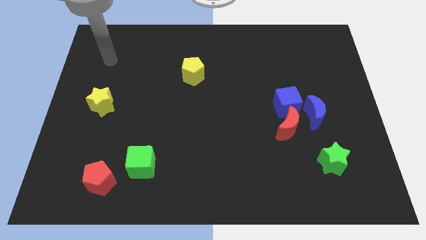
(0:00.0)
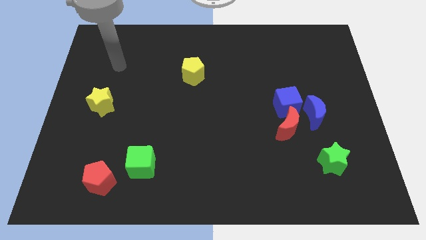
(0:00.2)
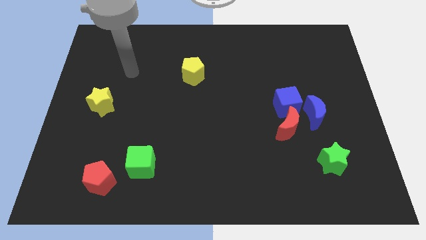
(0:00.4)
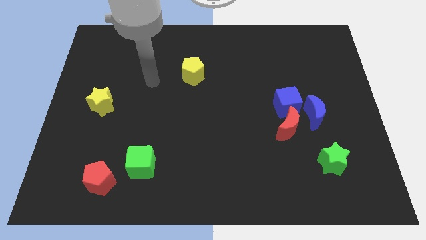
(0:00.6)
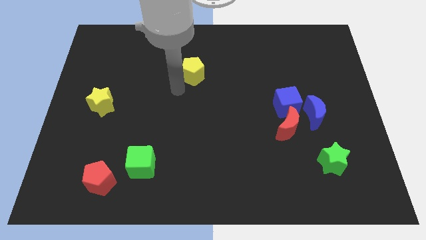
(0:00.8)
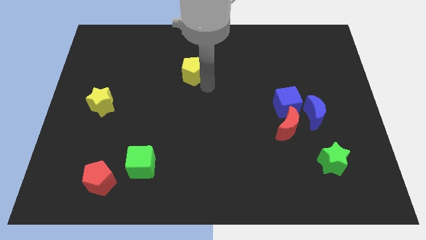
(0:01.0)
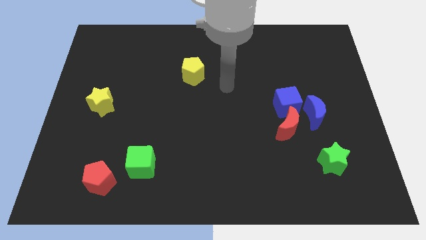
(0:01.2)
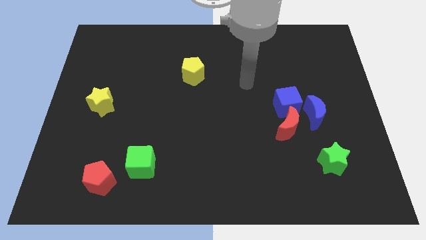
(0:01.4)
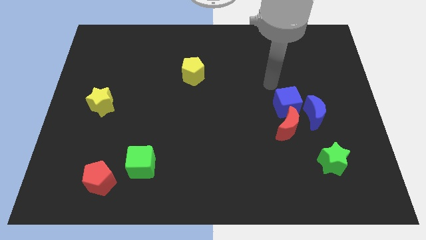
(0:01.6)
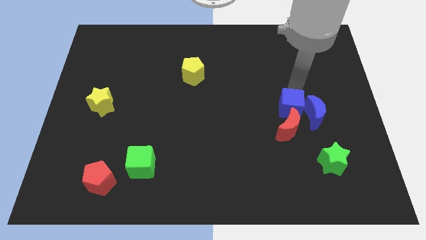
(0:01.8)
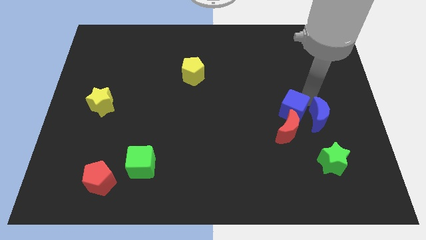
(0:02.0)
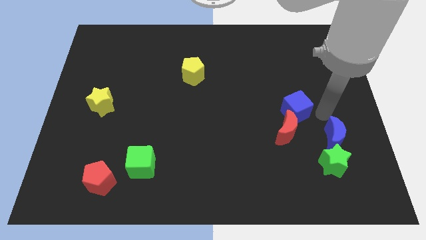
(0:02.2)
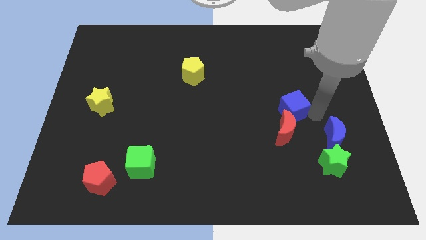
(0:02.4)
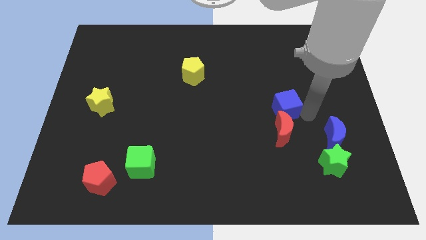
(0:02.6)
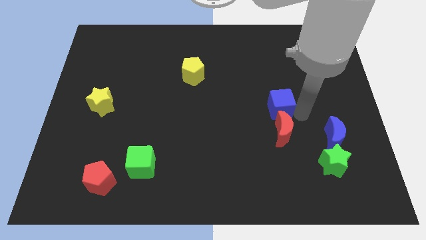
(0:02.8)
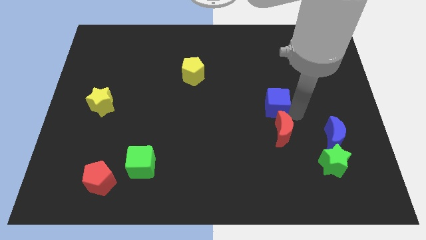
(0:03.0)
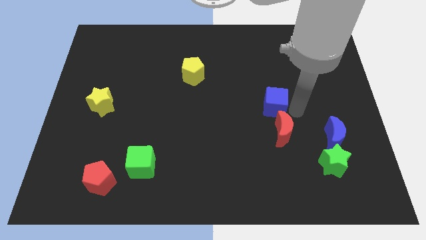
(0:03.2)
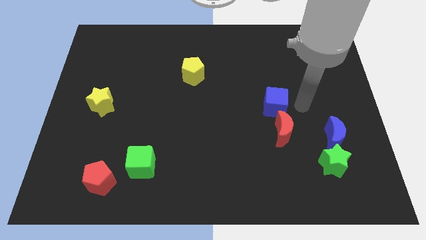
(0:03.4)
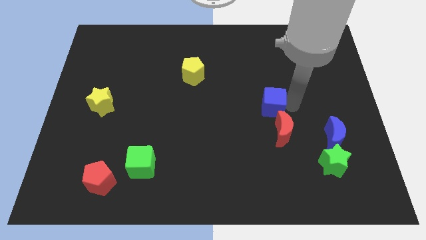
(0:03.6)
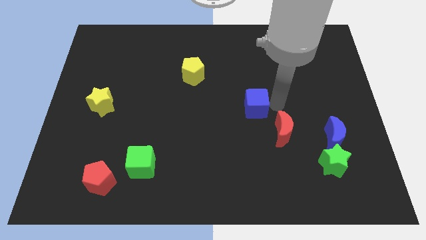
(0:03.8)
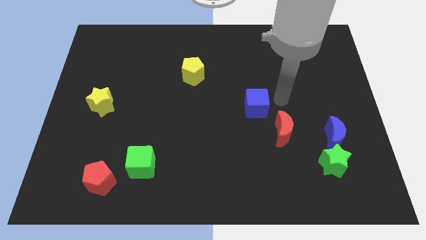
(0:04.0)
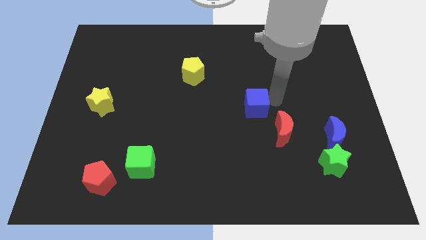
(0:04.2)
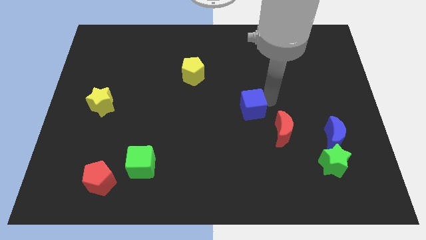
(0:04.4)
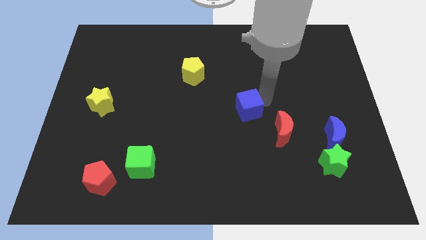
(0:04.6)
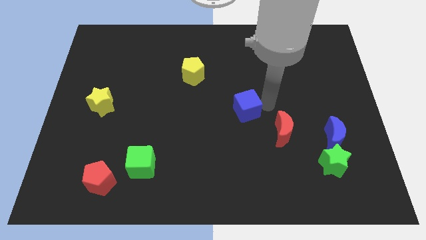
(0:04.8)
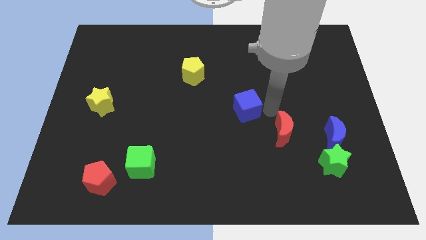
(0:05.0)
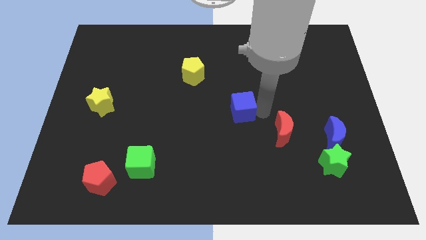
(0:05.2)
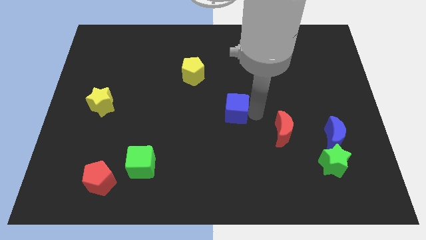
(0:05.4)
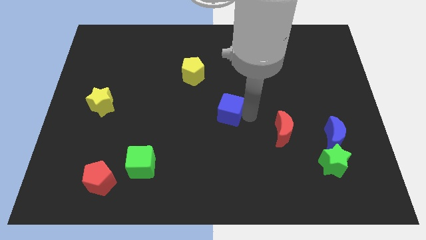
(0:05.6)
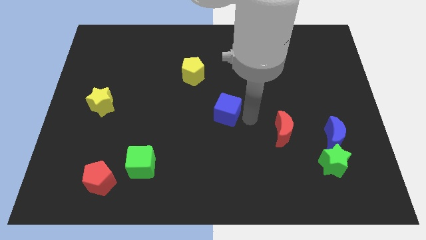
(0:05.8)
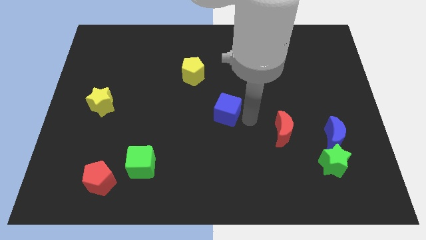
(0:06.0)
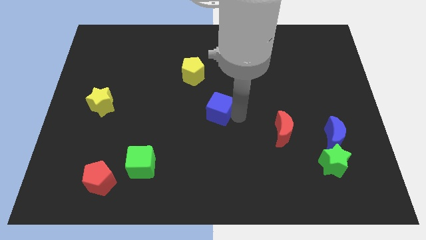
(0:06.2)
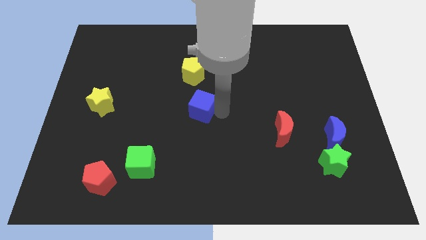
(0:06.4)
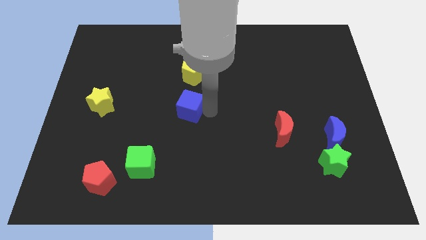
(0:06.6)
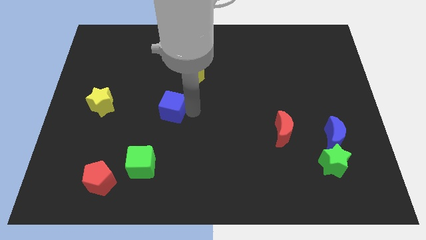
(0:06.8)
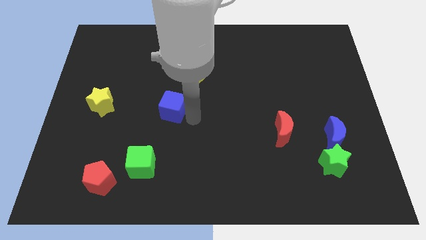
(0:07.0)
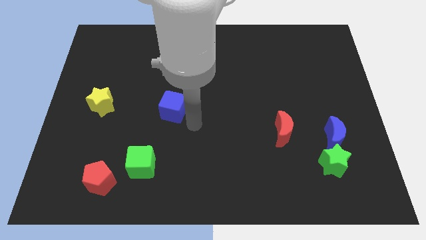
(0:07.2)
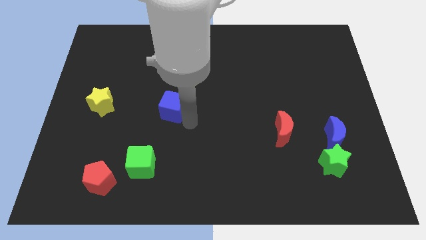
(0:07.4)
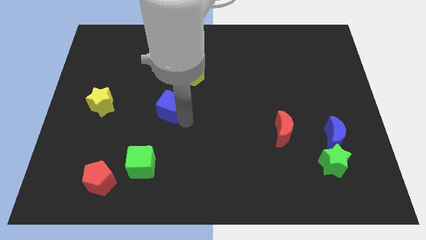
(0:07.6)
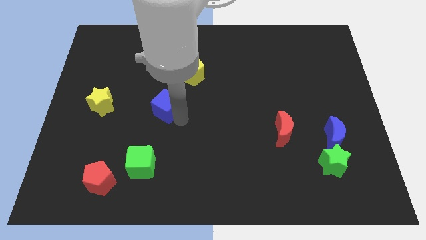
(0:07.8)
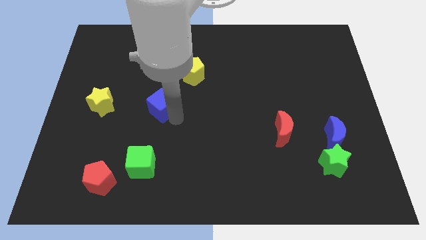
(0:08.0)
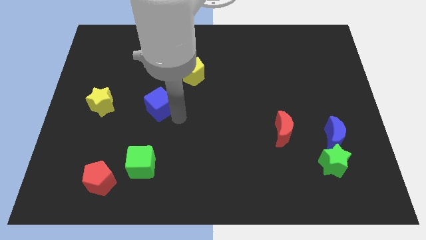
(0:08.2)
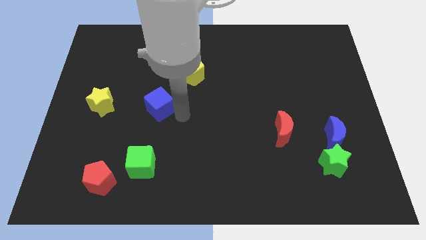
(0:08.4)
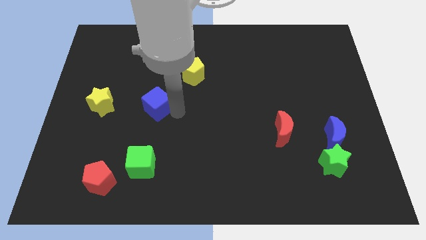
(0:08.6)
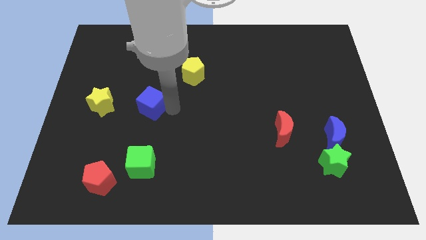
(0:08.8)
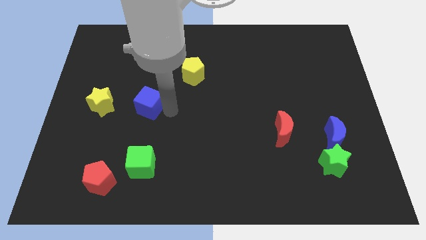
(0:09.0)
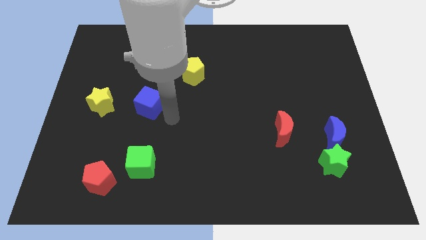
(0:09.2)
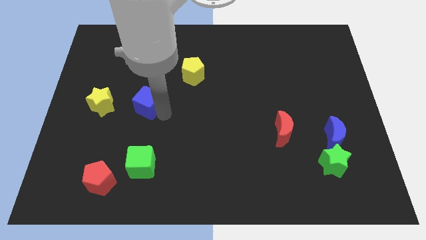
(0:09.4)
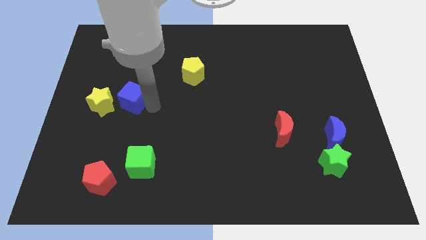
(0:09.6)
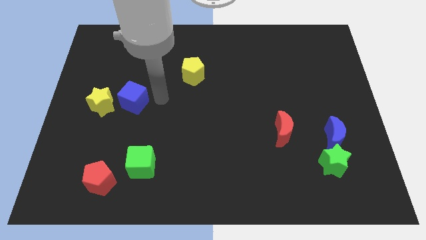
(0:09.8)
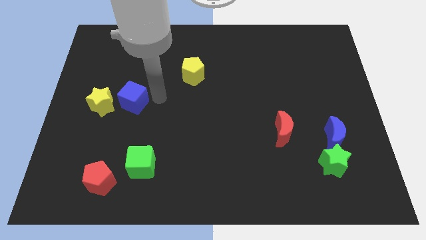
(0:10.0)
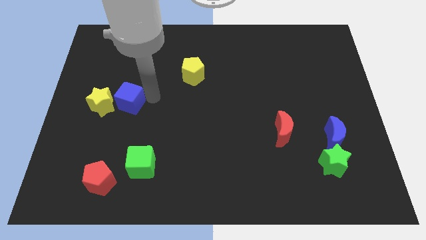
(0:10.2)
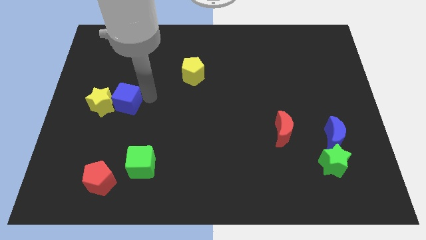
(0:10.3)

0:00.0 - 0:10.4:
push the blue cube to the yellow star

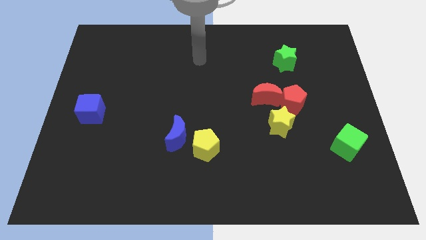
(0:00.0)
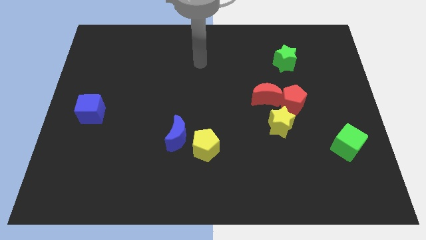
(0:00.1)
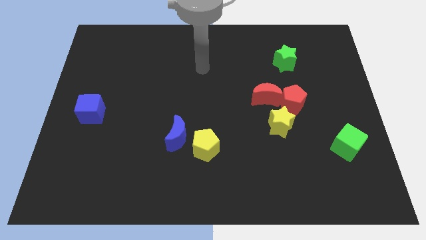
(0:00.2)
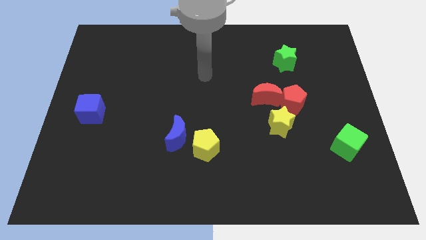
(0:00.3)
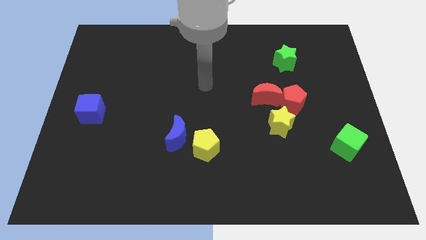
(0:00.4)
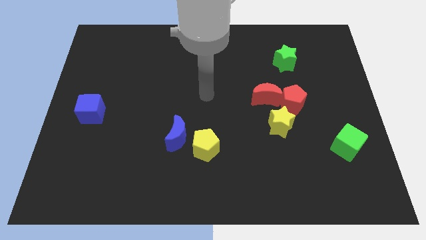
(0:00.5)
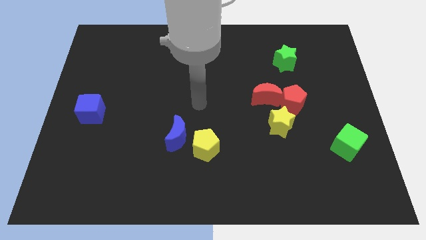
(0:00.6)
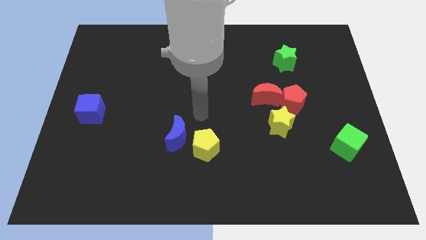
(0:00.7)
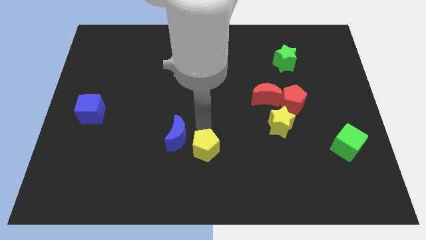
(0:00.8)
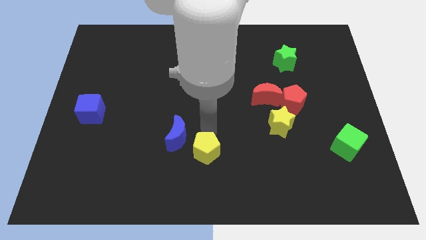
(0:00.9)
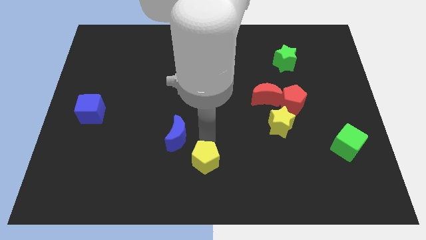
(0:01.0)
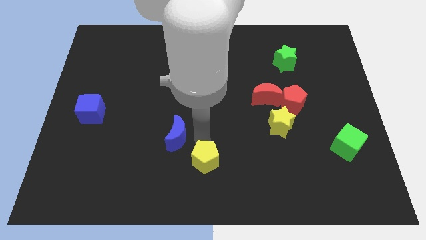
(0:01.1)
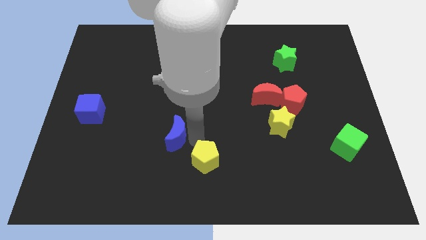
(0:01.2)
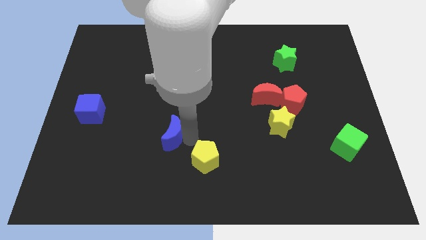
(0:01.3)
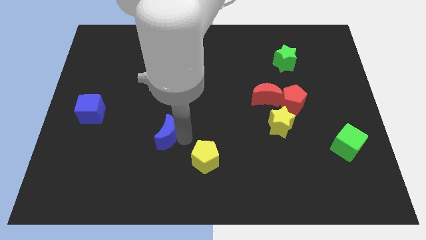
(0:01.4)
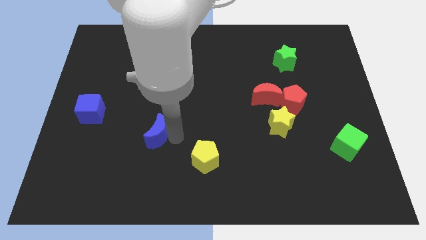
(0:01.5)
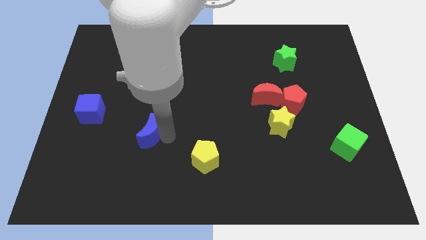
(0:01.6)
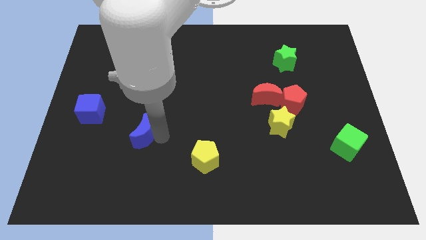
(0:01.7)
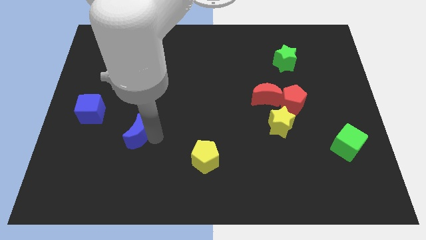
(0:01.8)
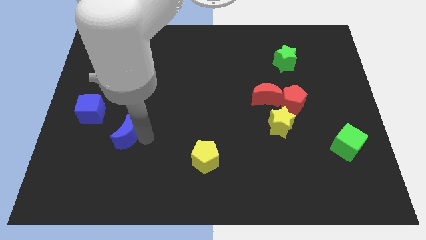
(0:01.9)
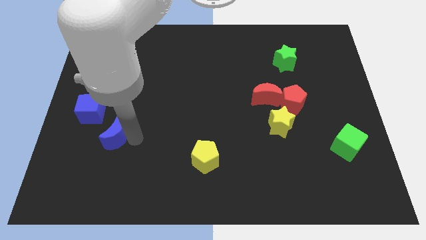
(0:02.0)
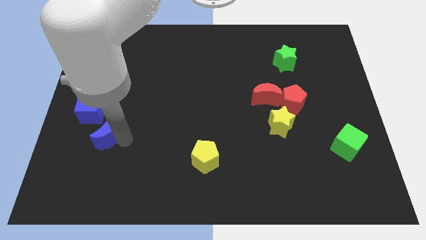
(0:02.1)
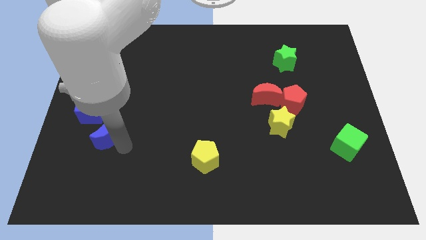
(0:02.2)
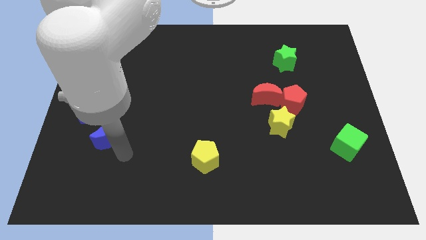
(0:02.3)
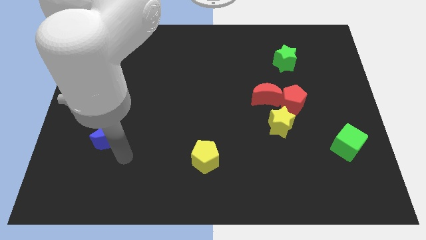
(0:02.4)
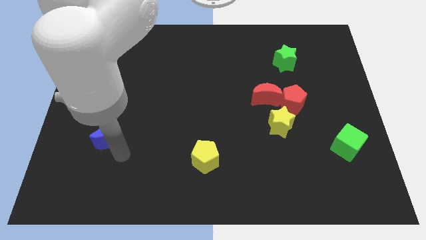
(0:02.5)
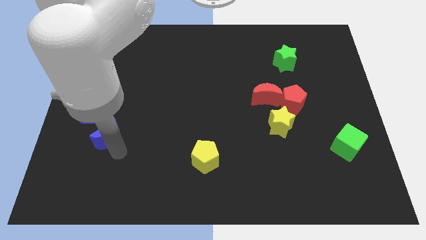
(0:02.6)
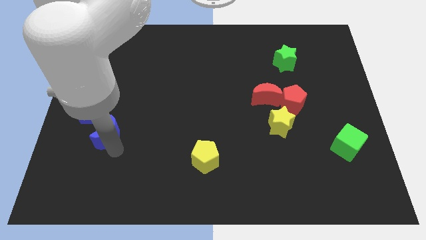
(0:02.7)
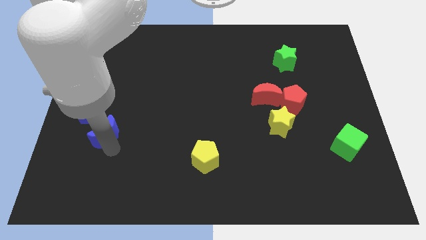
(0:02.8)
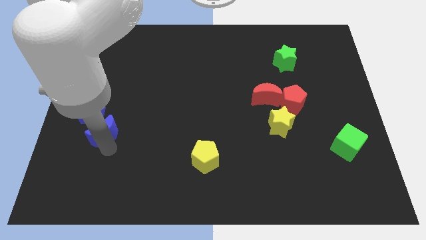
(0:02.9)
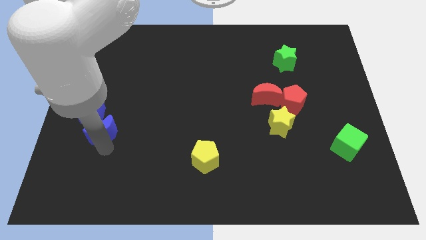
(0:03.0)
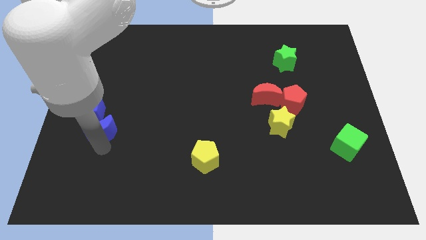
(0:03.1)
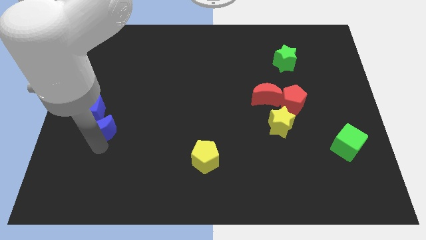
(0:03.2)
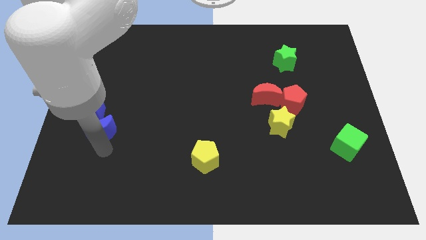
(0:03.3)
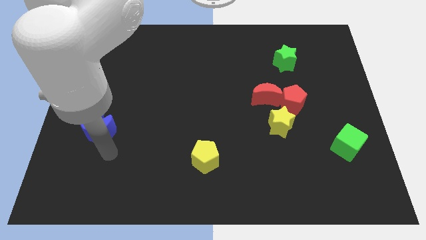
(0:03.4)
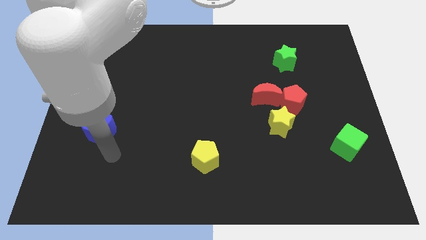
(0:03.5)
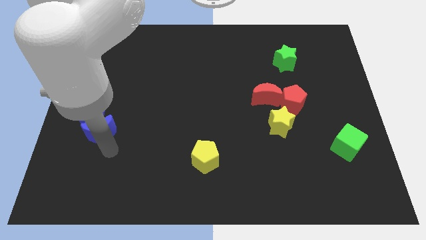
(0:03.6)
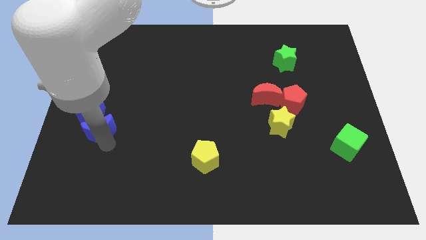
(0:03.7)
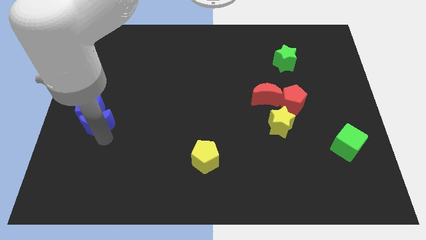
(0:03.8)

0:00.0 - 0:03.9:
put the blue moon towards the blue cube
